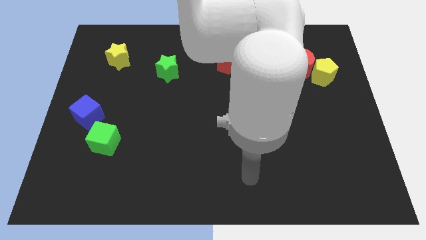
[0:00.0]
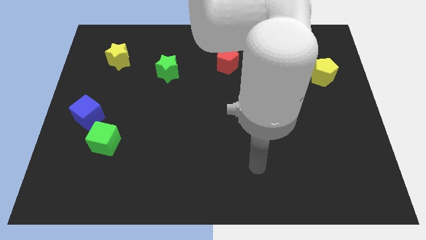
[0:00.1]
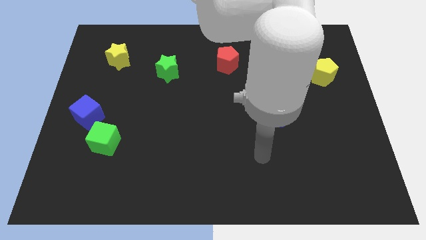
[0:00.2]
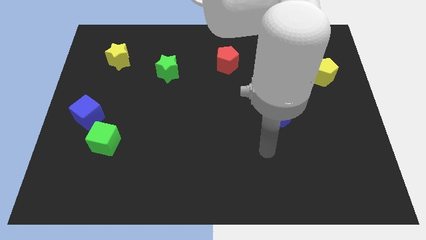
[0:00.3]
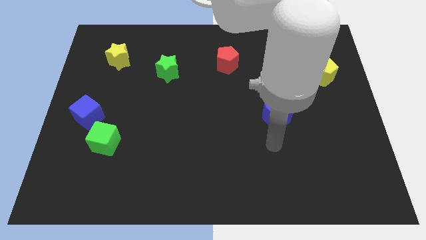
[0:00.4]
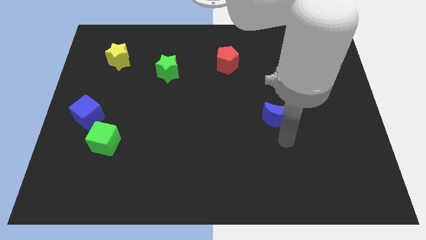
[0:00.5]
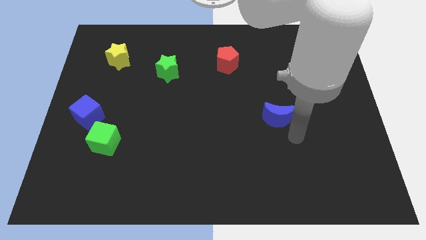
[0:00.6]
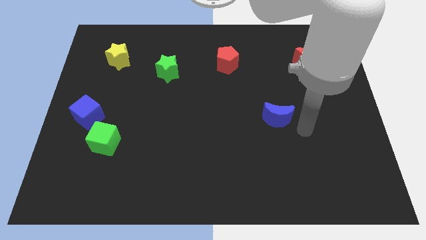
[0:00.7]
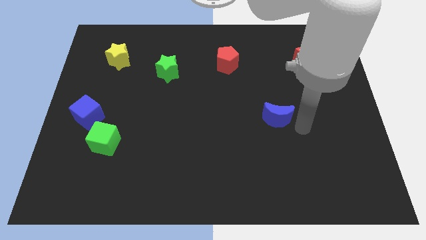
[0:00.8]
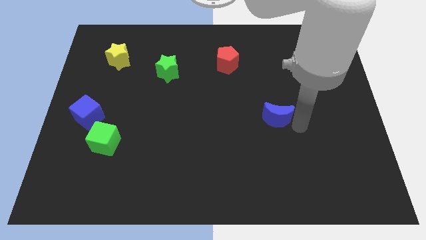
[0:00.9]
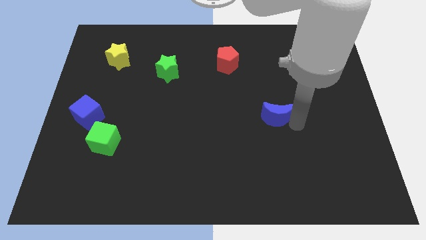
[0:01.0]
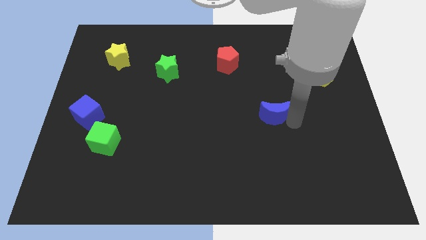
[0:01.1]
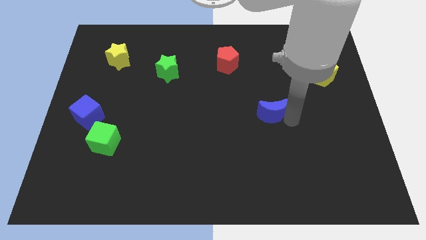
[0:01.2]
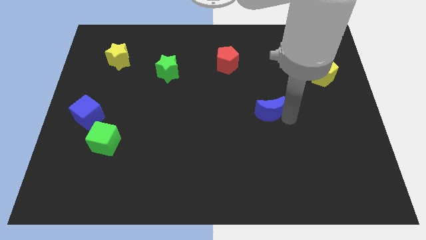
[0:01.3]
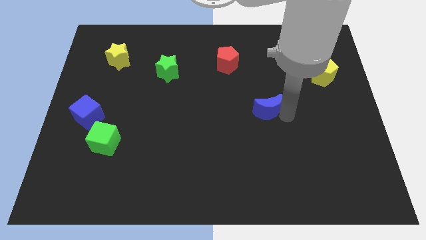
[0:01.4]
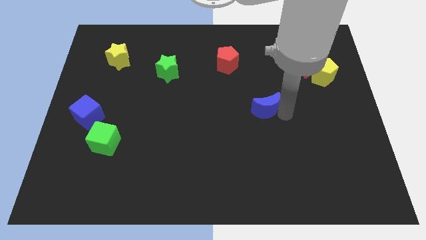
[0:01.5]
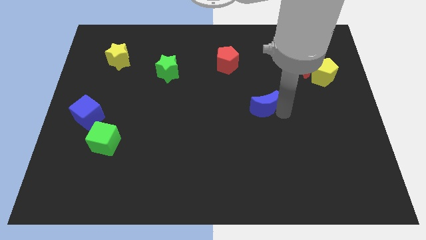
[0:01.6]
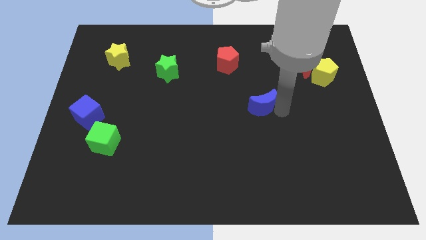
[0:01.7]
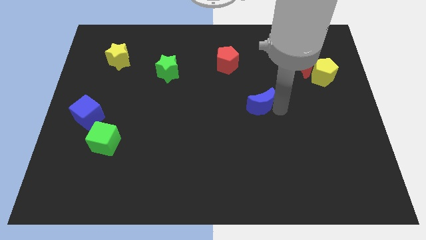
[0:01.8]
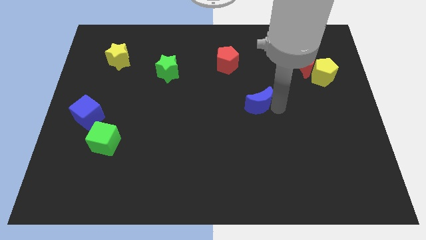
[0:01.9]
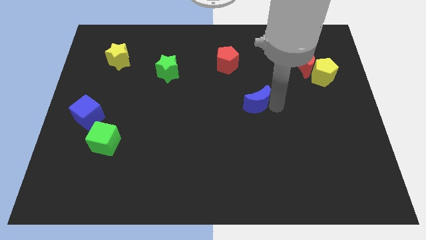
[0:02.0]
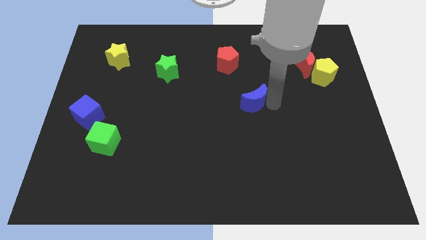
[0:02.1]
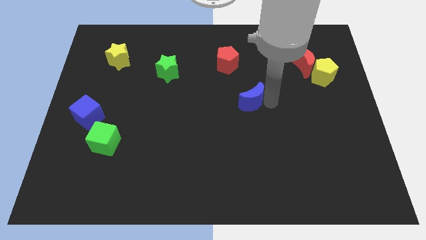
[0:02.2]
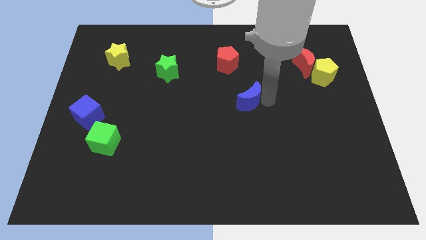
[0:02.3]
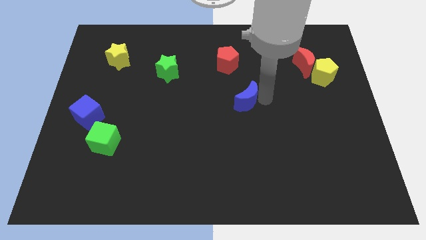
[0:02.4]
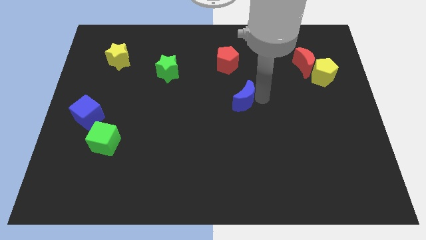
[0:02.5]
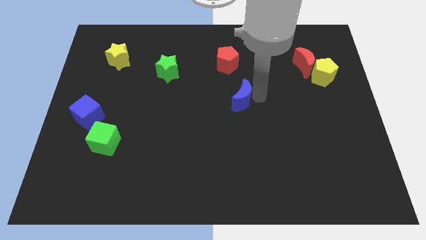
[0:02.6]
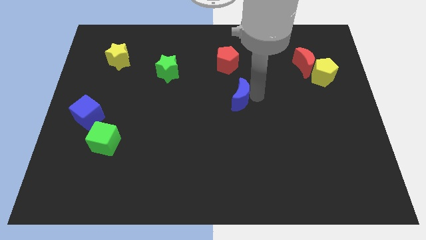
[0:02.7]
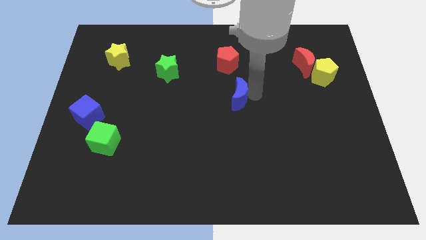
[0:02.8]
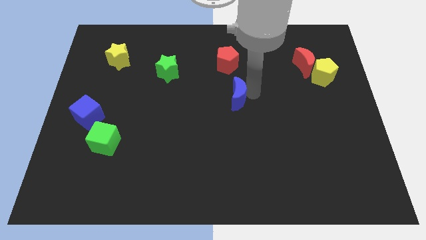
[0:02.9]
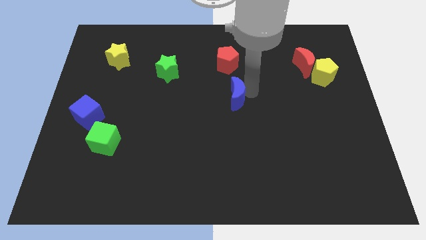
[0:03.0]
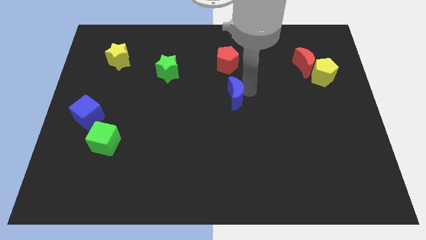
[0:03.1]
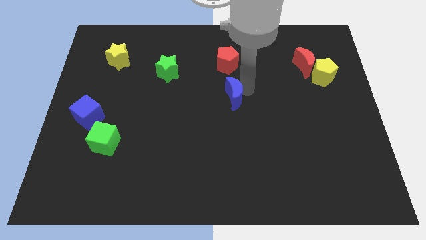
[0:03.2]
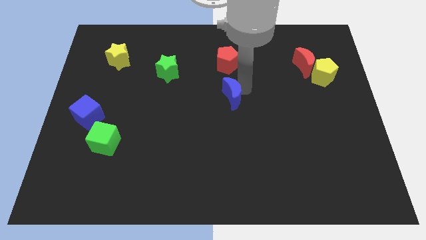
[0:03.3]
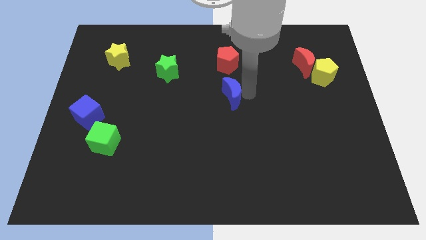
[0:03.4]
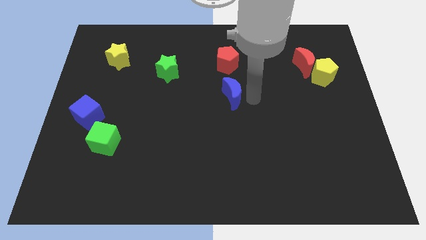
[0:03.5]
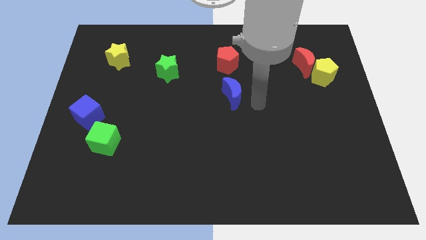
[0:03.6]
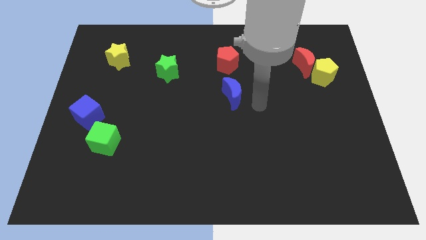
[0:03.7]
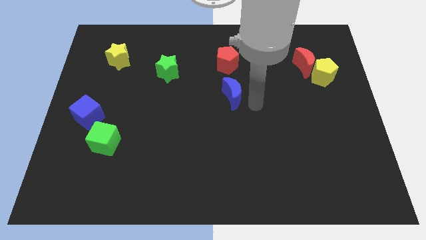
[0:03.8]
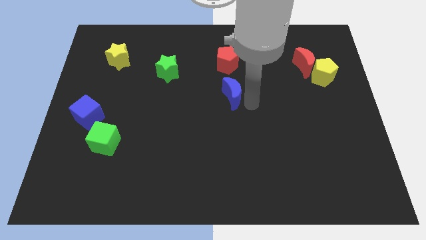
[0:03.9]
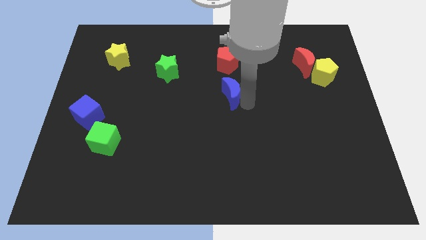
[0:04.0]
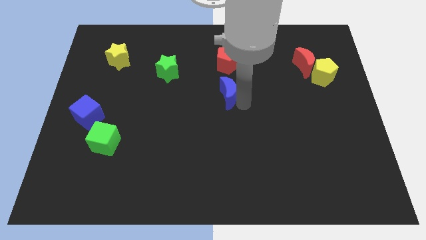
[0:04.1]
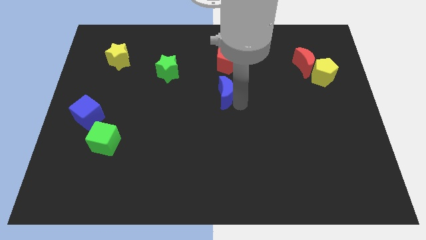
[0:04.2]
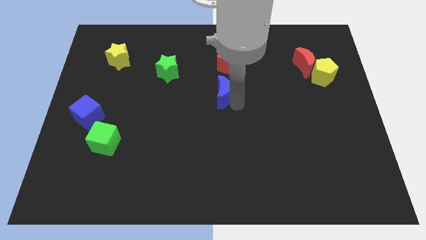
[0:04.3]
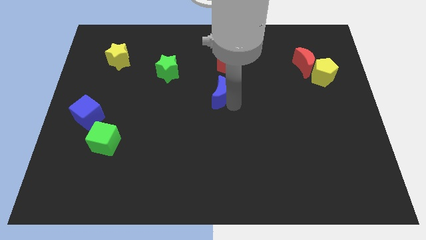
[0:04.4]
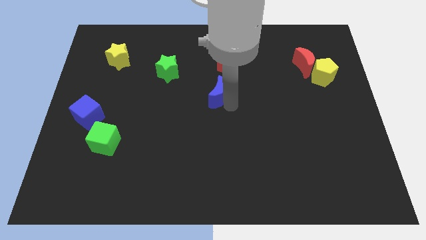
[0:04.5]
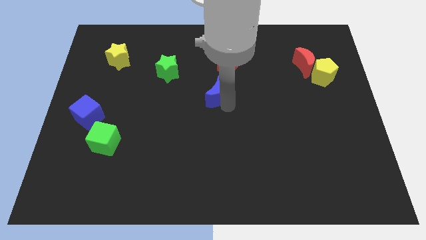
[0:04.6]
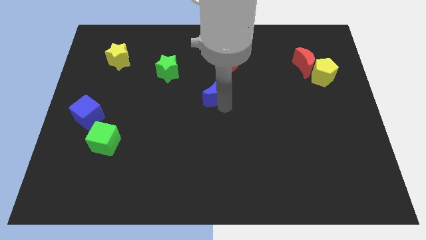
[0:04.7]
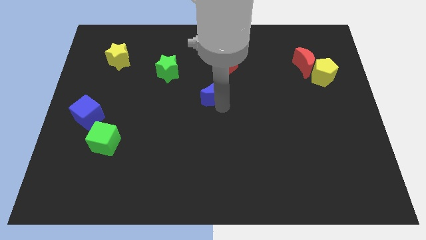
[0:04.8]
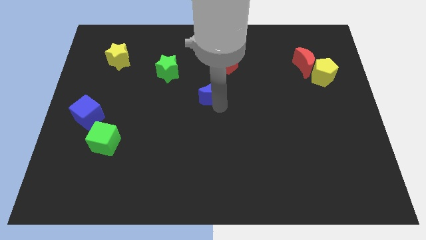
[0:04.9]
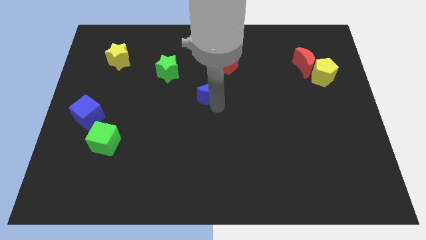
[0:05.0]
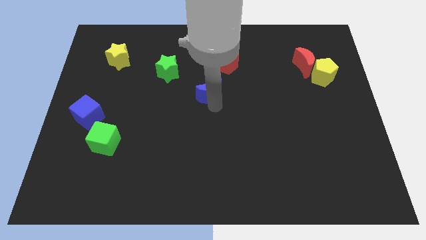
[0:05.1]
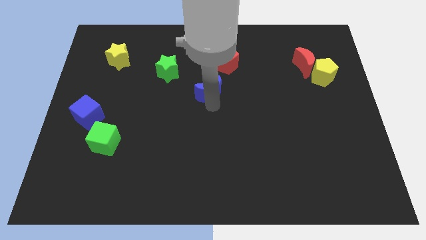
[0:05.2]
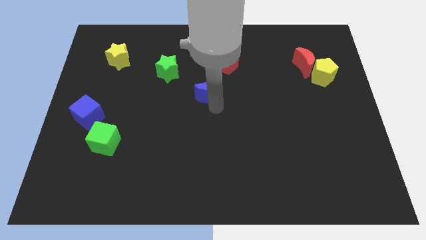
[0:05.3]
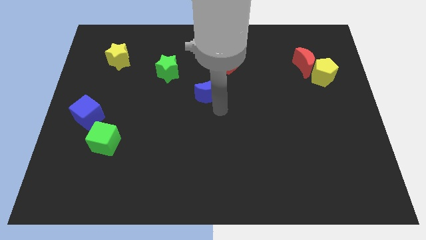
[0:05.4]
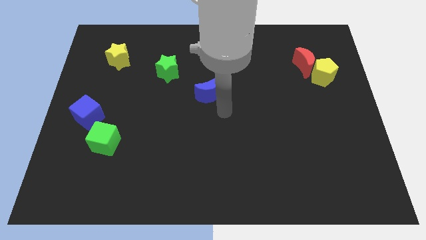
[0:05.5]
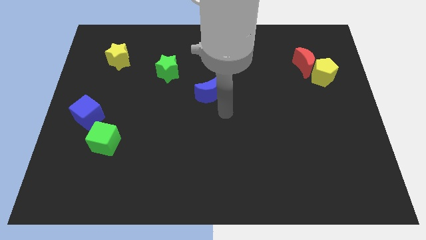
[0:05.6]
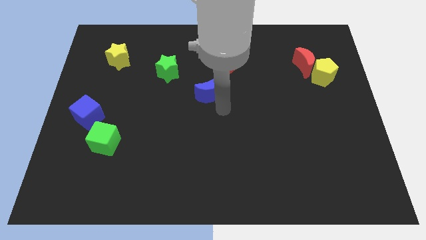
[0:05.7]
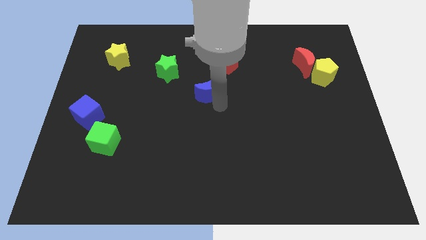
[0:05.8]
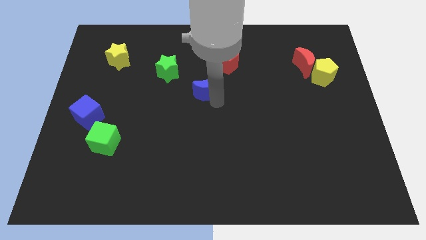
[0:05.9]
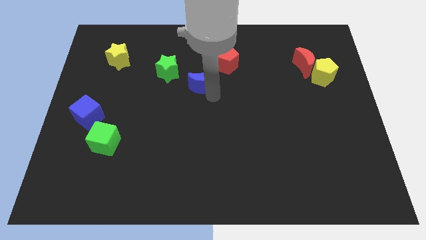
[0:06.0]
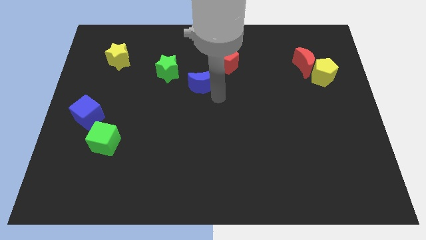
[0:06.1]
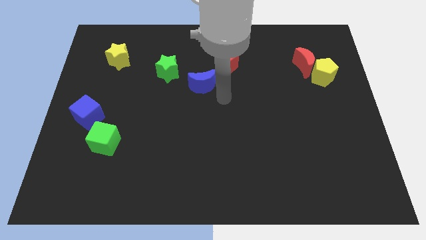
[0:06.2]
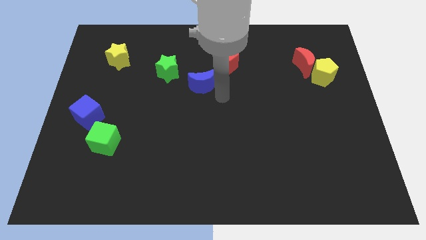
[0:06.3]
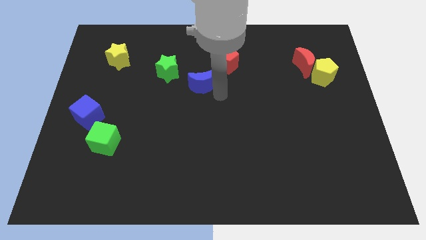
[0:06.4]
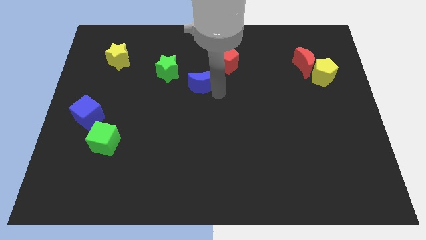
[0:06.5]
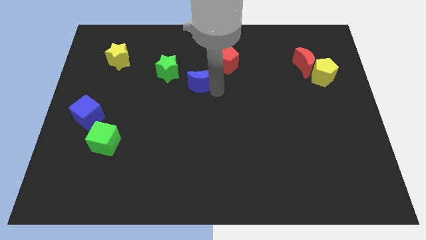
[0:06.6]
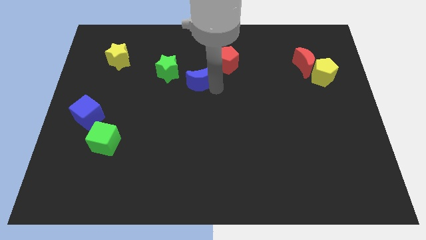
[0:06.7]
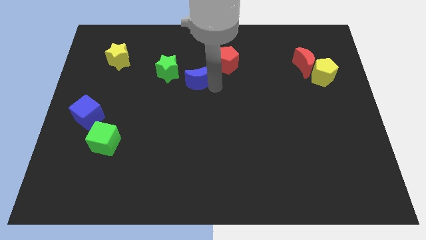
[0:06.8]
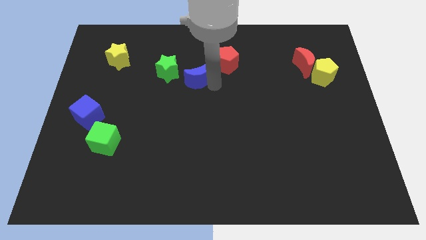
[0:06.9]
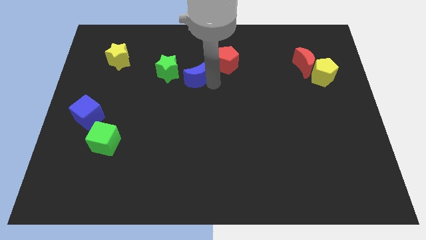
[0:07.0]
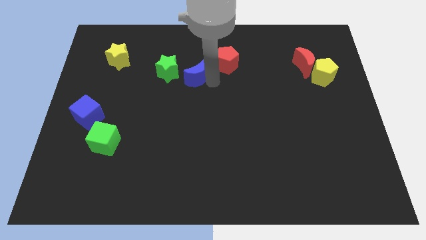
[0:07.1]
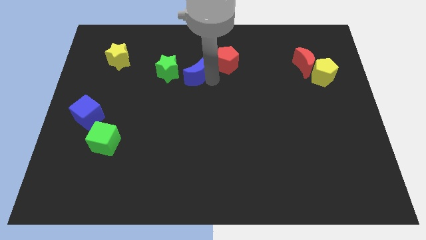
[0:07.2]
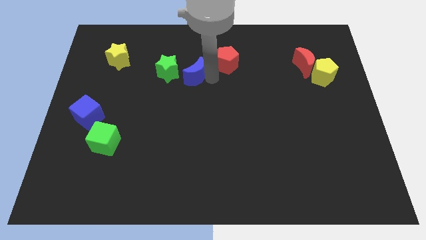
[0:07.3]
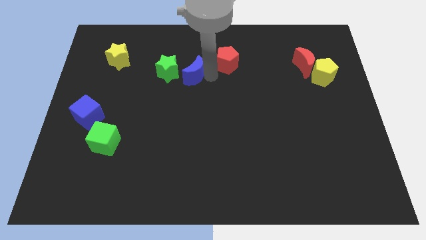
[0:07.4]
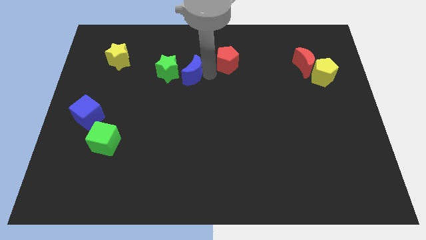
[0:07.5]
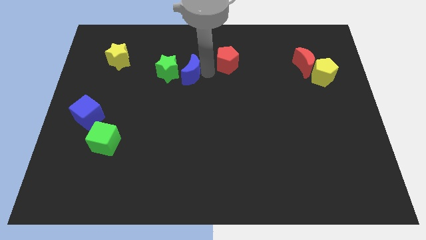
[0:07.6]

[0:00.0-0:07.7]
slide the blue moon next to the green star

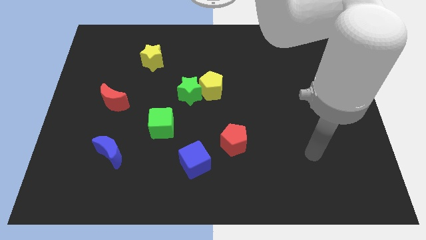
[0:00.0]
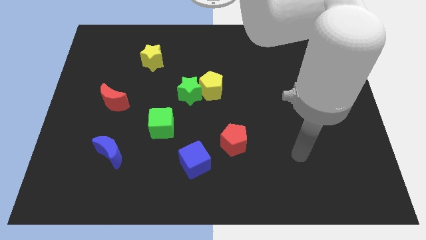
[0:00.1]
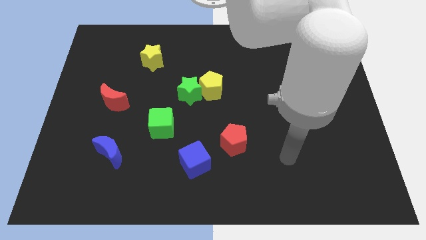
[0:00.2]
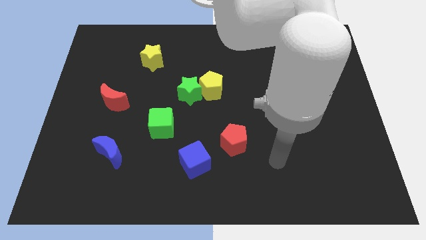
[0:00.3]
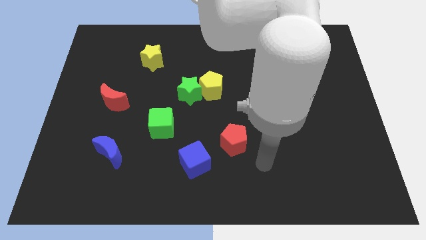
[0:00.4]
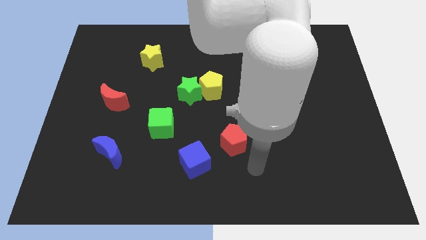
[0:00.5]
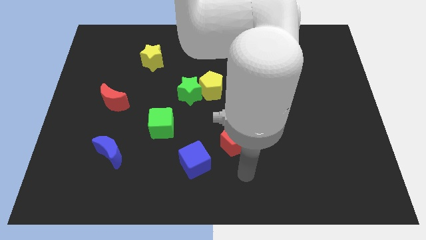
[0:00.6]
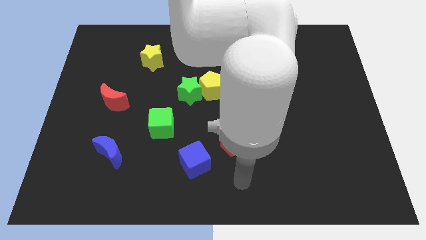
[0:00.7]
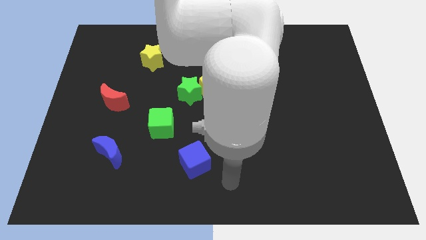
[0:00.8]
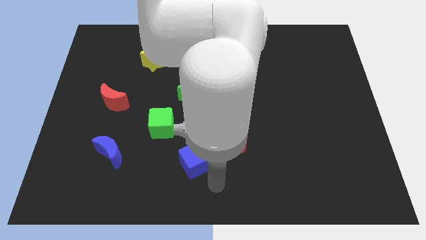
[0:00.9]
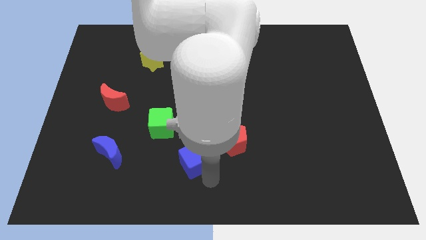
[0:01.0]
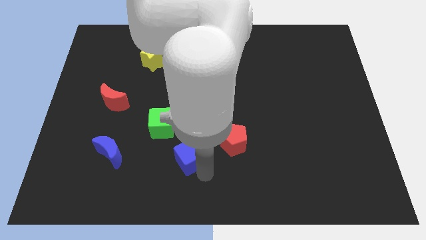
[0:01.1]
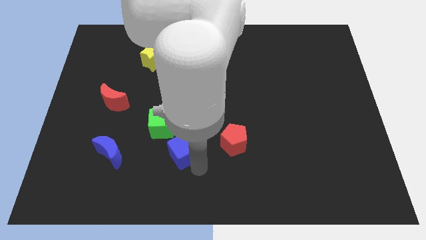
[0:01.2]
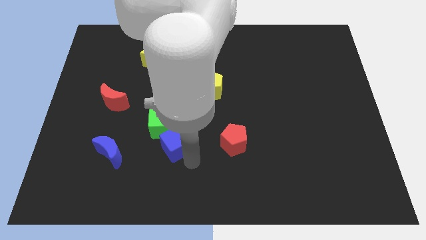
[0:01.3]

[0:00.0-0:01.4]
move the blue cube close to the green cube
